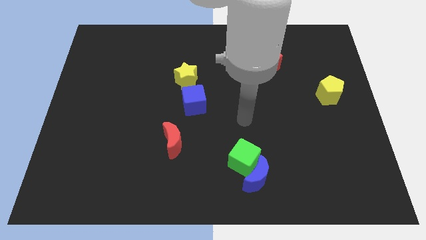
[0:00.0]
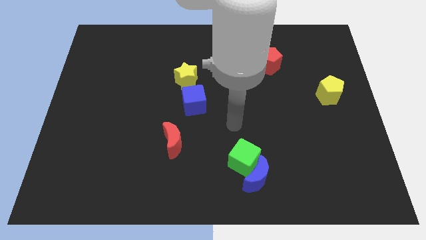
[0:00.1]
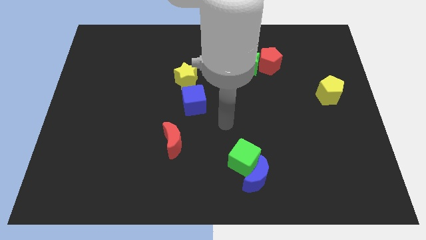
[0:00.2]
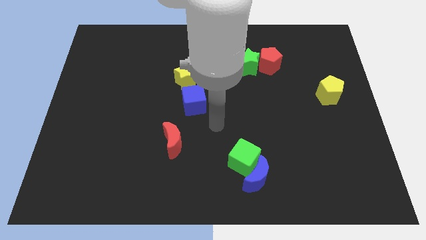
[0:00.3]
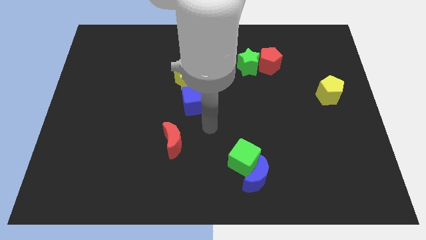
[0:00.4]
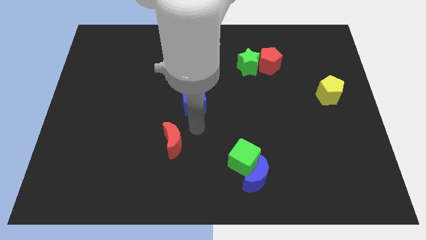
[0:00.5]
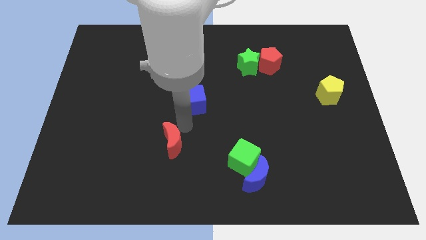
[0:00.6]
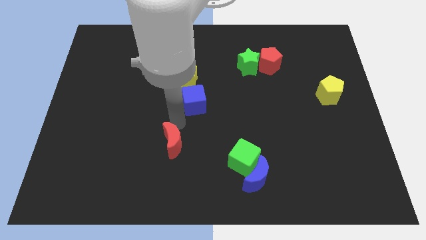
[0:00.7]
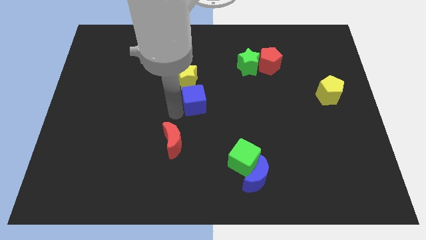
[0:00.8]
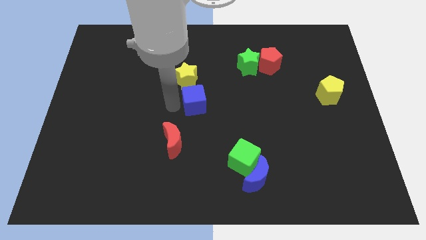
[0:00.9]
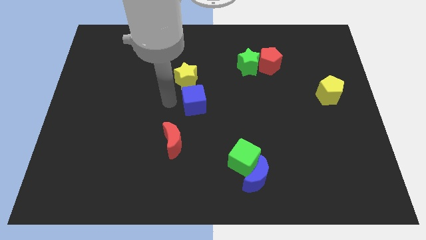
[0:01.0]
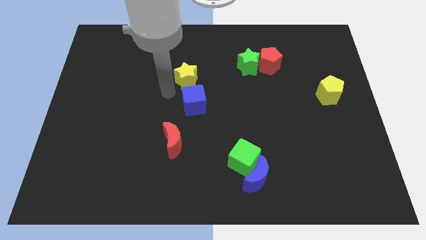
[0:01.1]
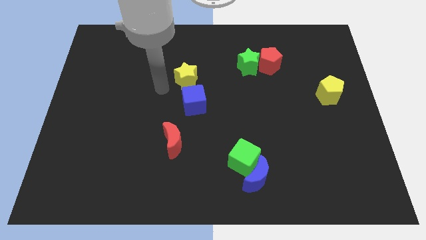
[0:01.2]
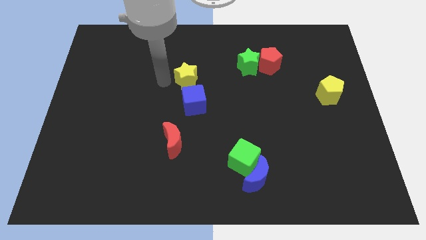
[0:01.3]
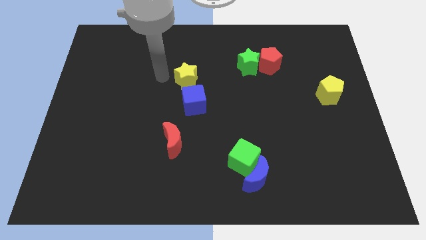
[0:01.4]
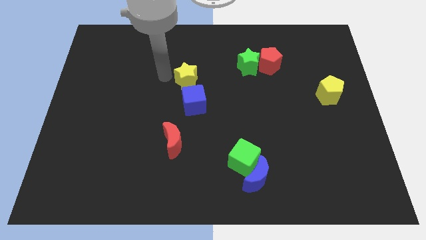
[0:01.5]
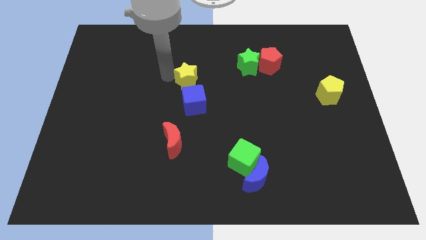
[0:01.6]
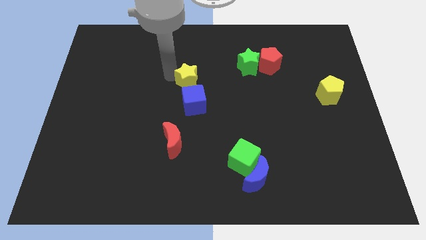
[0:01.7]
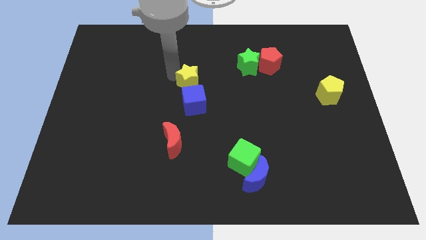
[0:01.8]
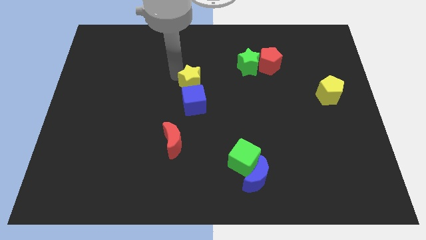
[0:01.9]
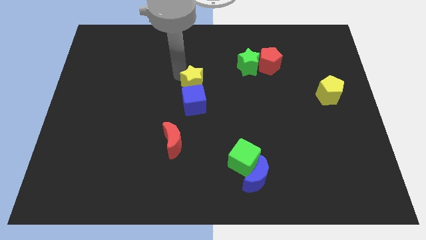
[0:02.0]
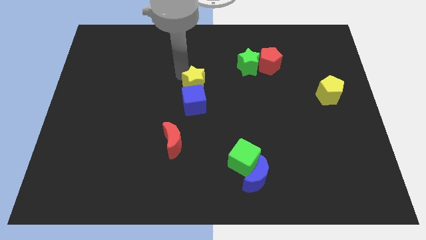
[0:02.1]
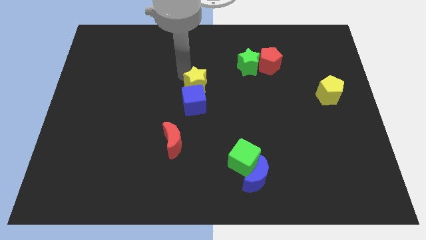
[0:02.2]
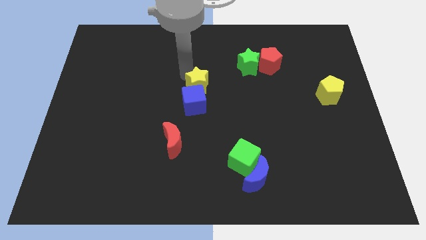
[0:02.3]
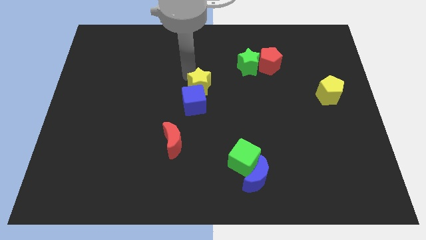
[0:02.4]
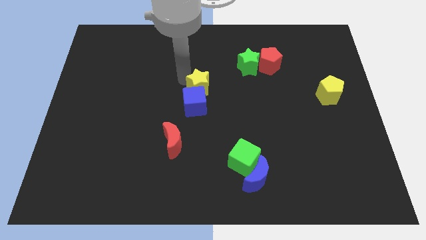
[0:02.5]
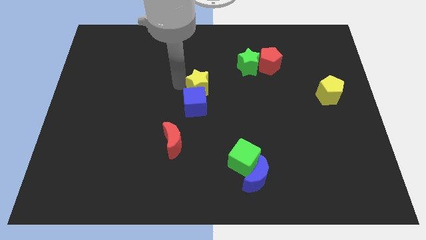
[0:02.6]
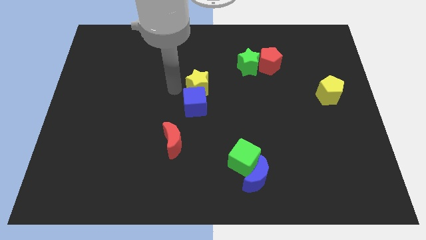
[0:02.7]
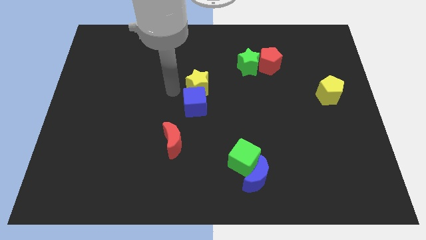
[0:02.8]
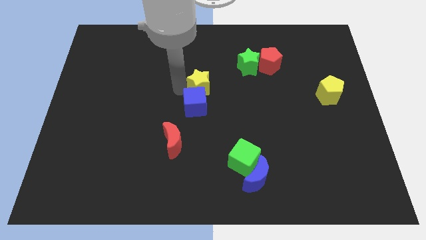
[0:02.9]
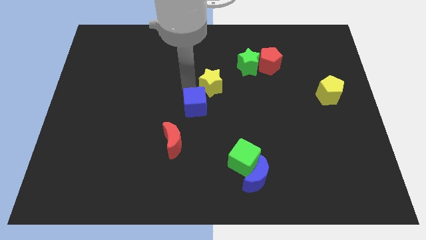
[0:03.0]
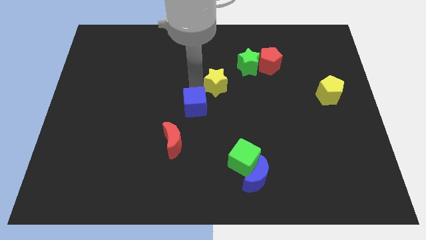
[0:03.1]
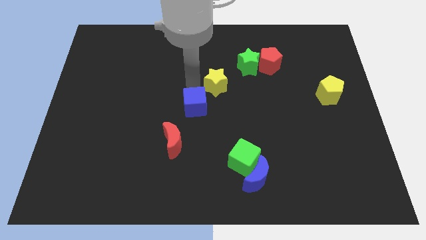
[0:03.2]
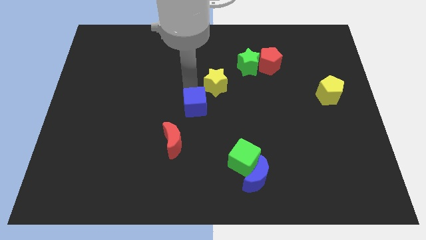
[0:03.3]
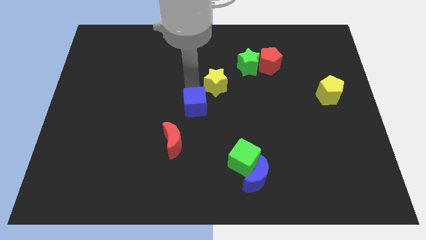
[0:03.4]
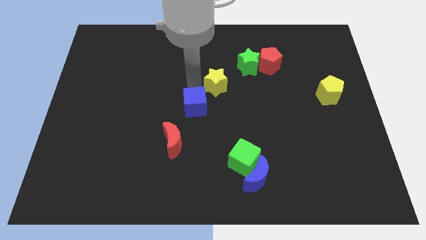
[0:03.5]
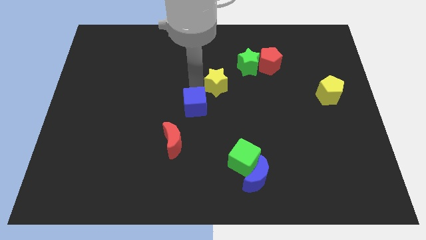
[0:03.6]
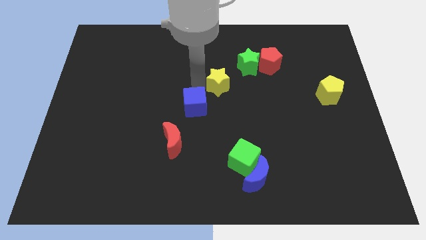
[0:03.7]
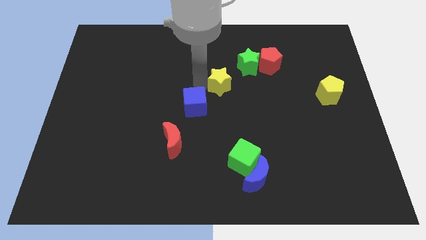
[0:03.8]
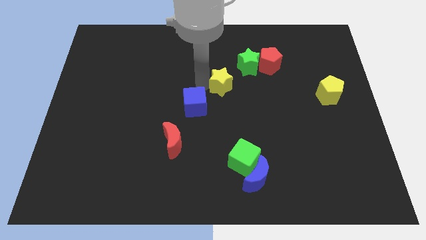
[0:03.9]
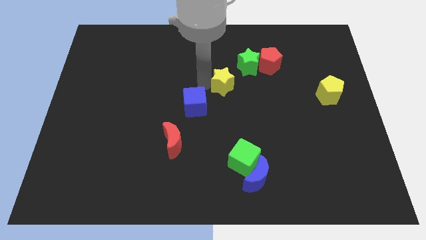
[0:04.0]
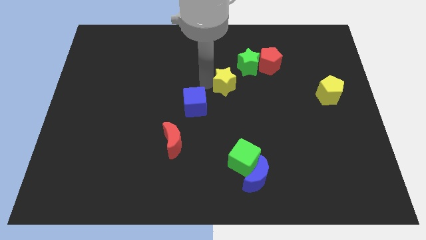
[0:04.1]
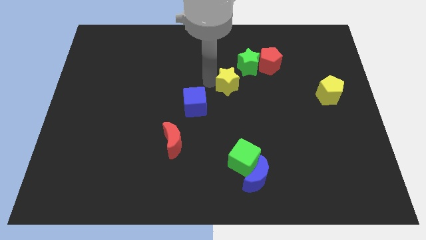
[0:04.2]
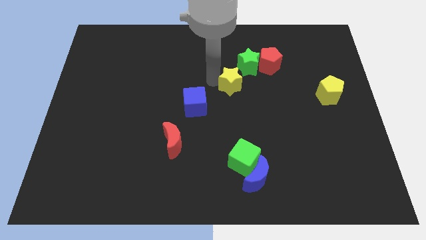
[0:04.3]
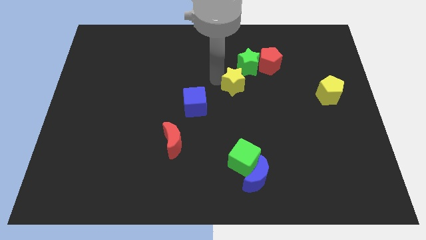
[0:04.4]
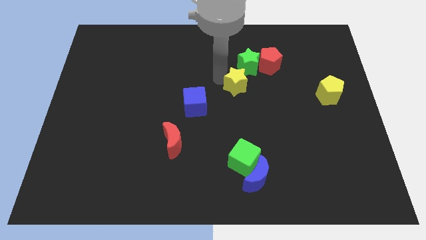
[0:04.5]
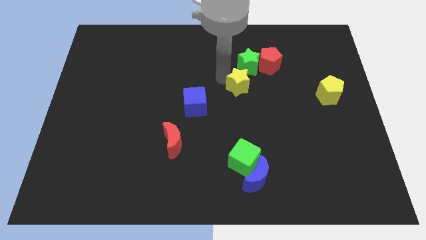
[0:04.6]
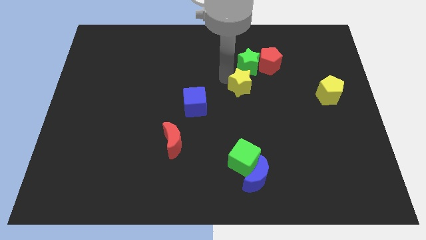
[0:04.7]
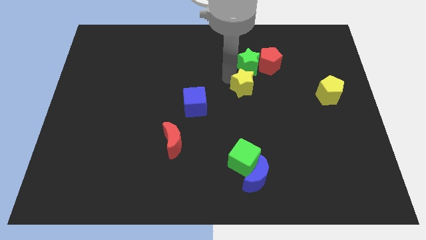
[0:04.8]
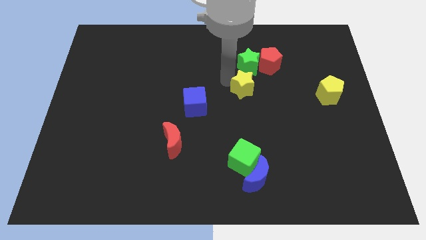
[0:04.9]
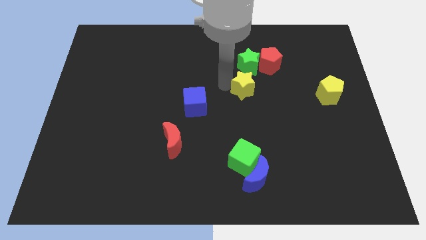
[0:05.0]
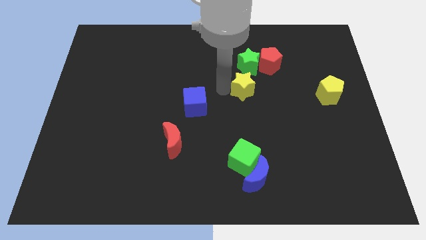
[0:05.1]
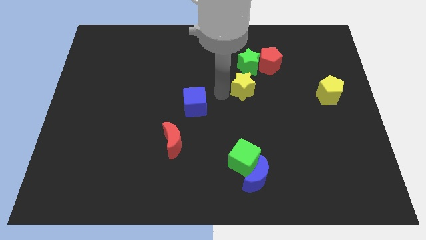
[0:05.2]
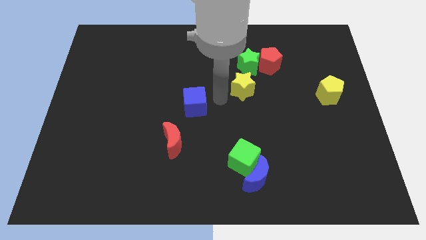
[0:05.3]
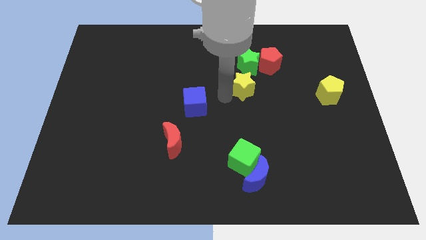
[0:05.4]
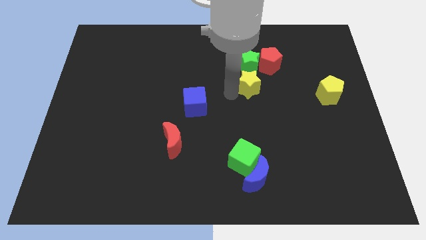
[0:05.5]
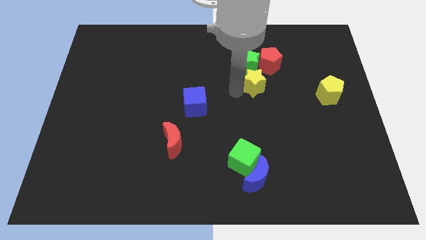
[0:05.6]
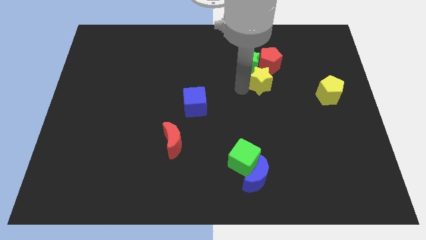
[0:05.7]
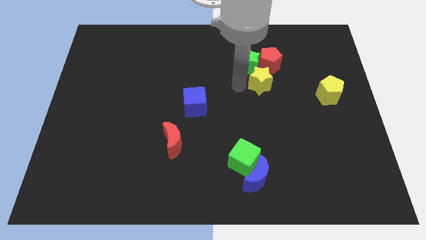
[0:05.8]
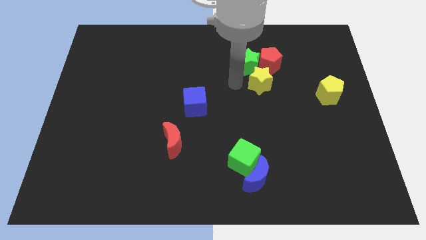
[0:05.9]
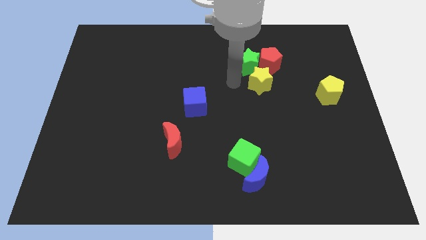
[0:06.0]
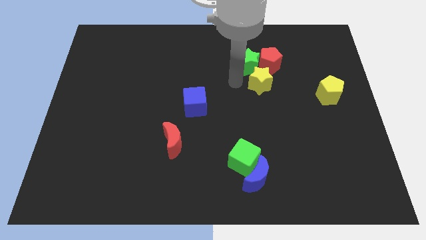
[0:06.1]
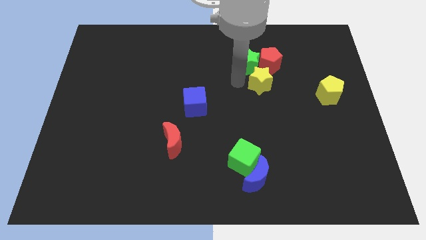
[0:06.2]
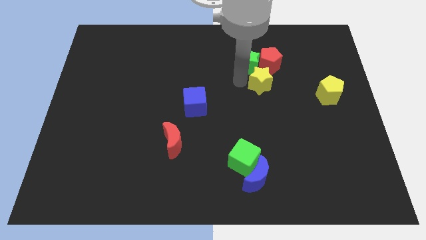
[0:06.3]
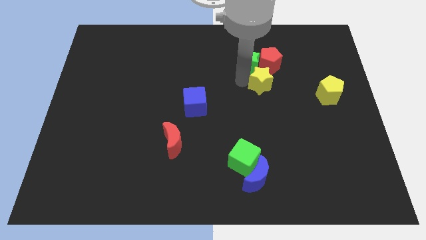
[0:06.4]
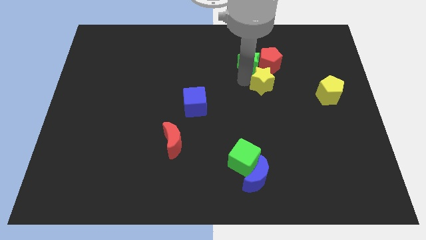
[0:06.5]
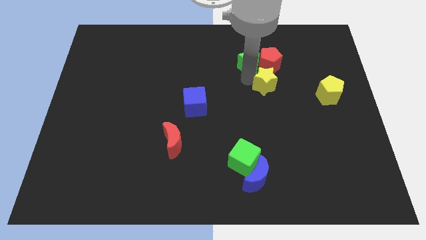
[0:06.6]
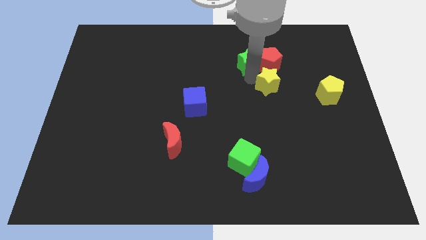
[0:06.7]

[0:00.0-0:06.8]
push the yellow star to the right

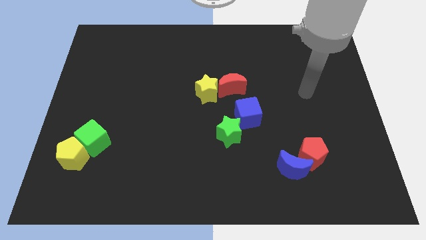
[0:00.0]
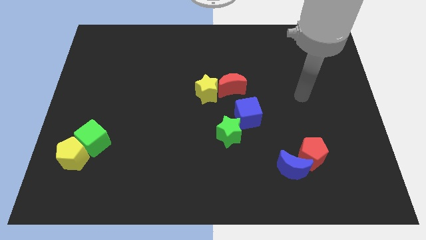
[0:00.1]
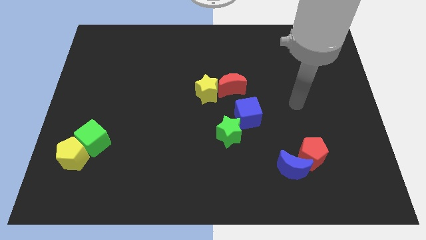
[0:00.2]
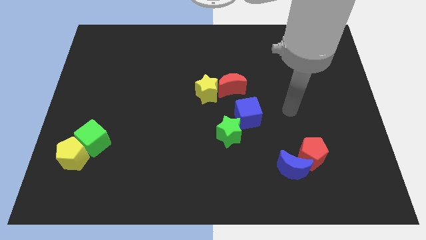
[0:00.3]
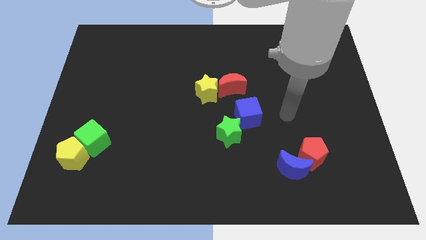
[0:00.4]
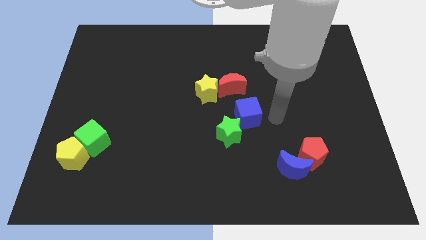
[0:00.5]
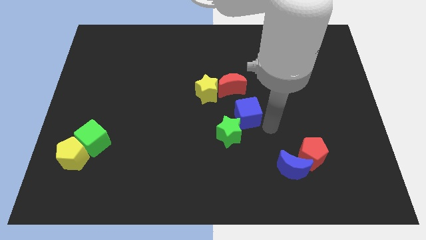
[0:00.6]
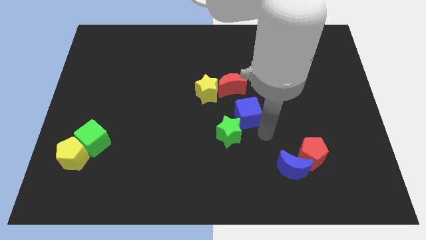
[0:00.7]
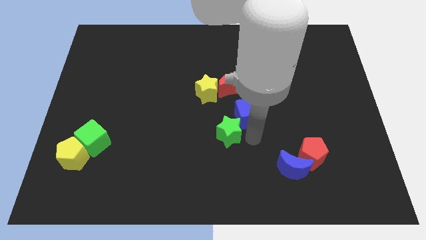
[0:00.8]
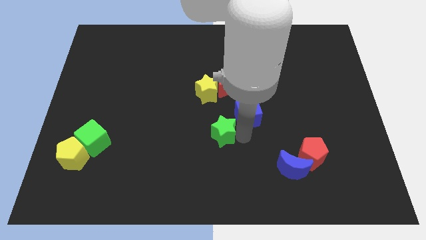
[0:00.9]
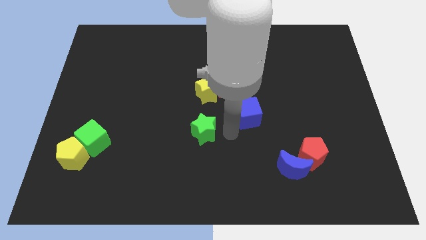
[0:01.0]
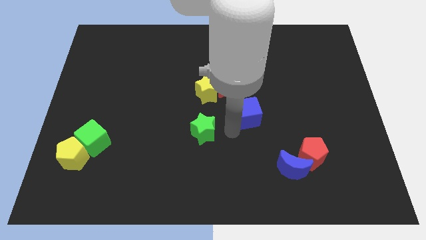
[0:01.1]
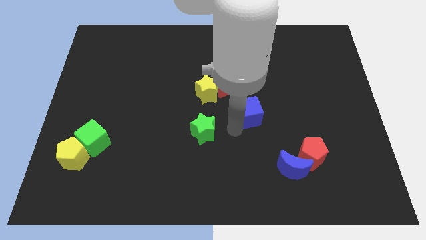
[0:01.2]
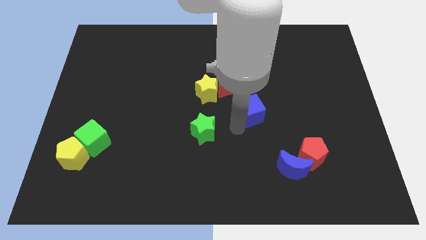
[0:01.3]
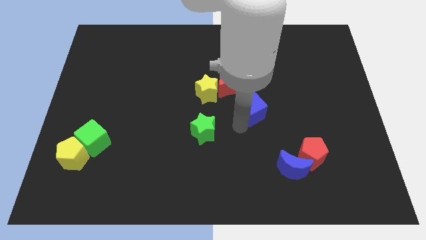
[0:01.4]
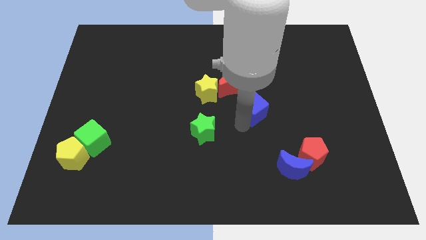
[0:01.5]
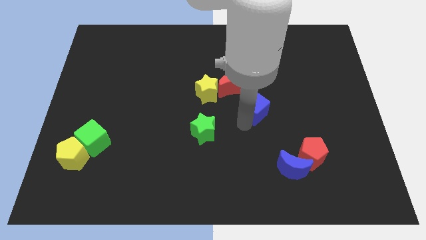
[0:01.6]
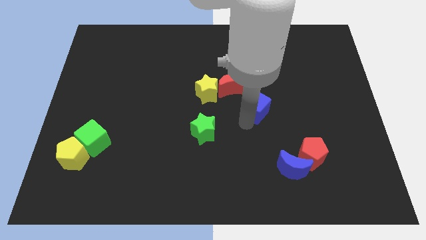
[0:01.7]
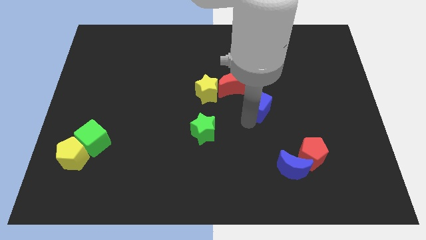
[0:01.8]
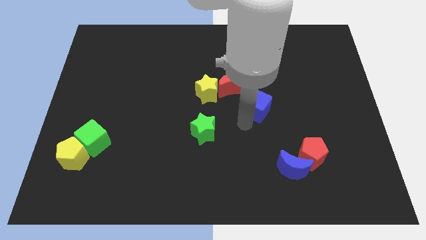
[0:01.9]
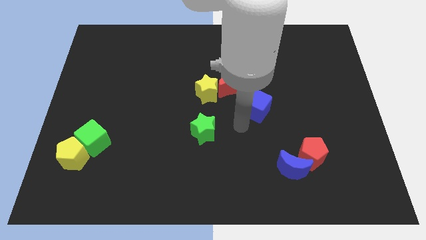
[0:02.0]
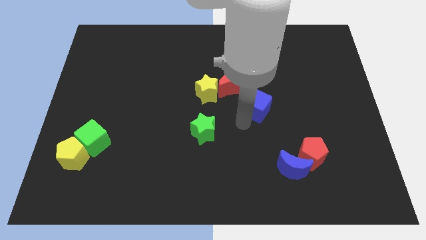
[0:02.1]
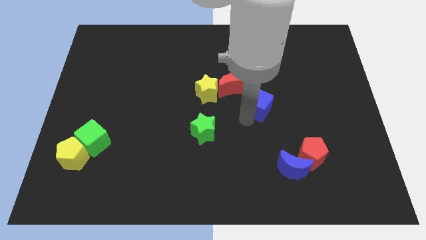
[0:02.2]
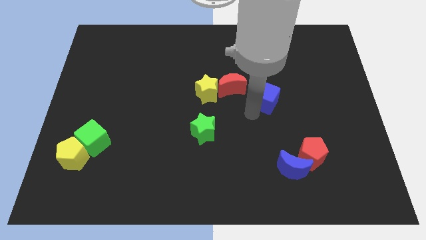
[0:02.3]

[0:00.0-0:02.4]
move the blue cube a little bit up and right
